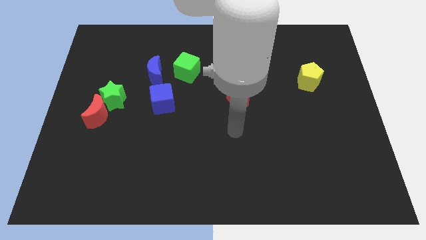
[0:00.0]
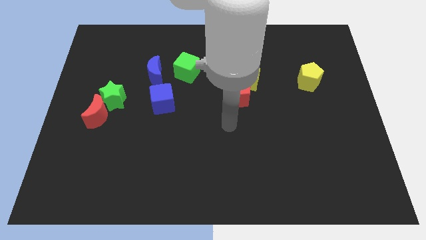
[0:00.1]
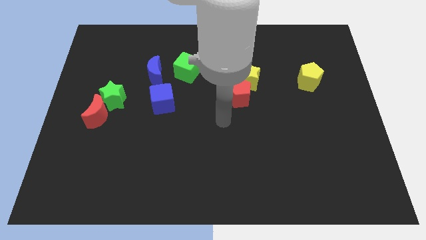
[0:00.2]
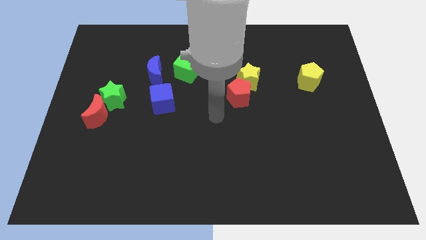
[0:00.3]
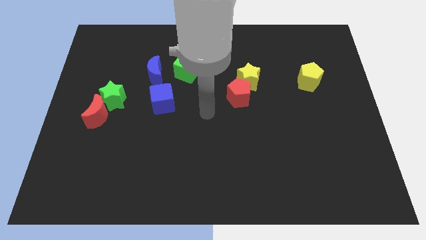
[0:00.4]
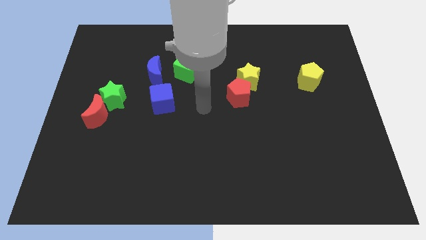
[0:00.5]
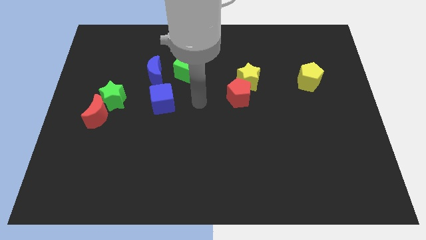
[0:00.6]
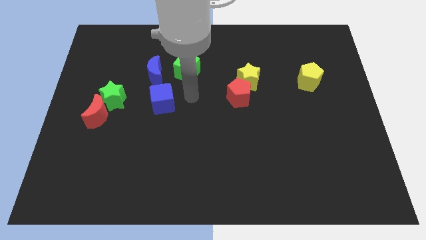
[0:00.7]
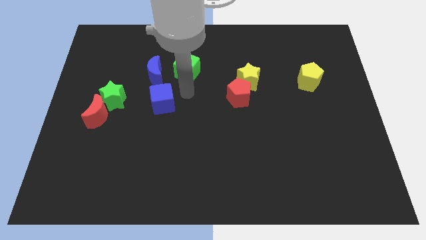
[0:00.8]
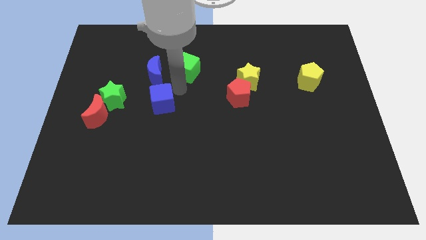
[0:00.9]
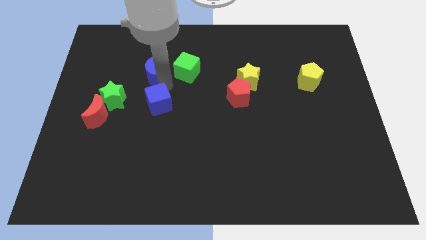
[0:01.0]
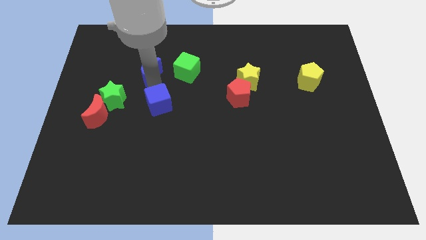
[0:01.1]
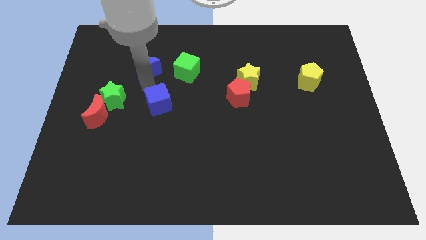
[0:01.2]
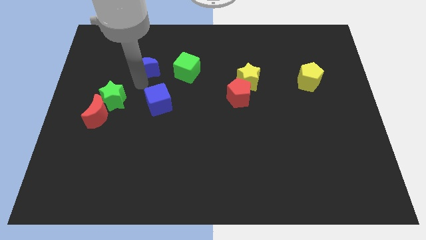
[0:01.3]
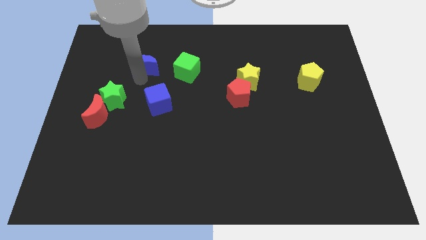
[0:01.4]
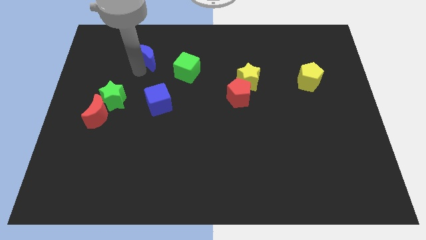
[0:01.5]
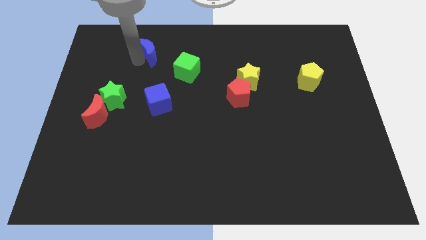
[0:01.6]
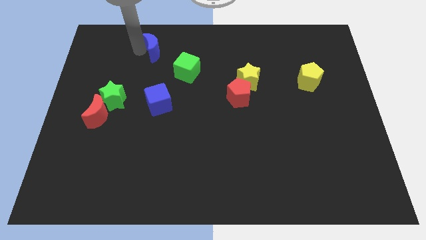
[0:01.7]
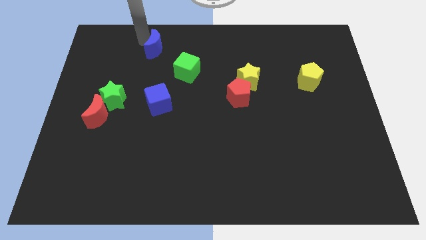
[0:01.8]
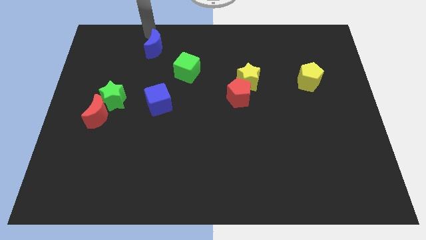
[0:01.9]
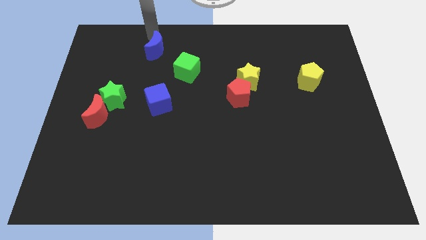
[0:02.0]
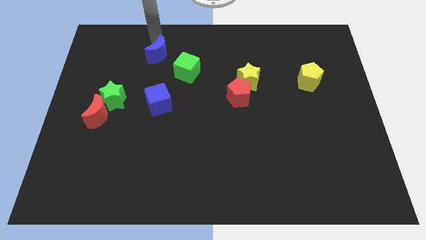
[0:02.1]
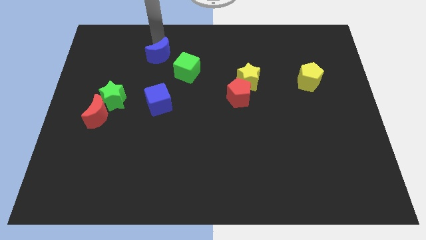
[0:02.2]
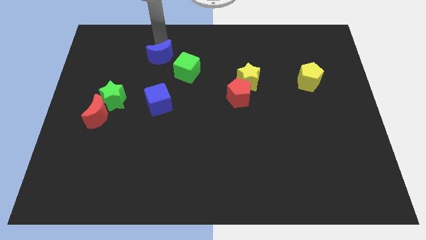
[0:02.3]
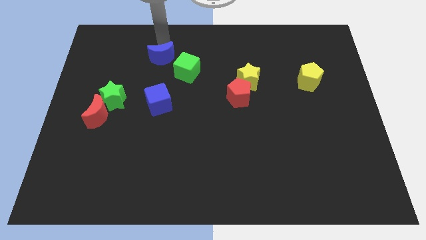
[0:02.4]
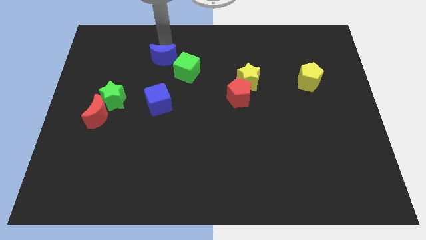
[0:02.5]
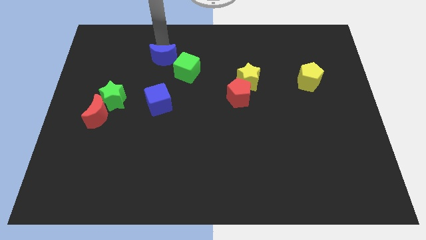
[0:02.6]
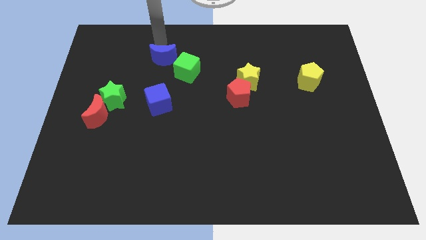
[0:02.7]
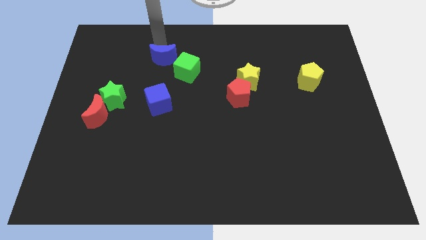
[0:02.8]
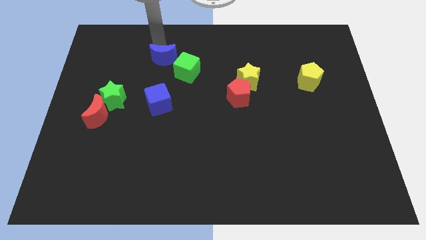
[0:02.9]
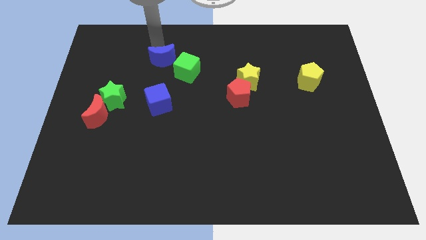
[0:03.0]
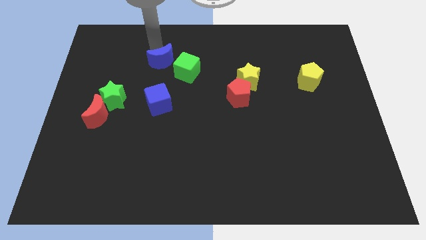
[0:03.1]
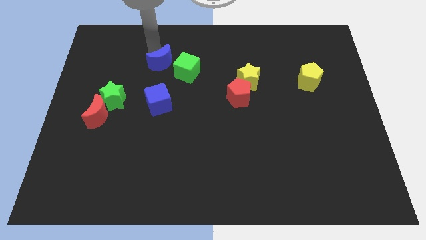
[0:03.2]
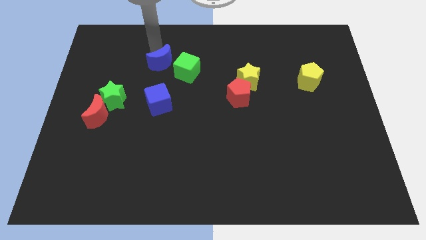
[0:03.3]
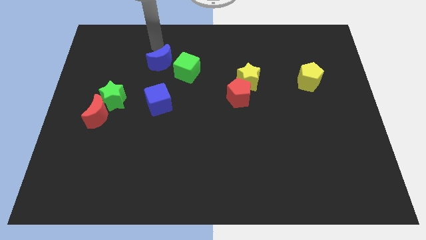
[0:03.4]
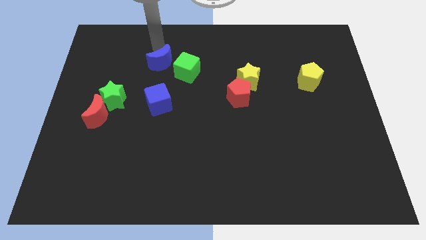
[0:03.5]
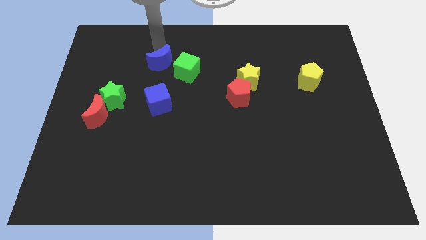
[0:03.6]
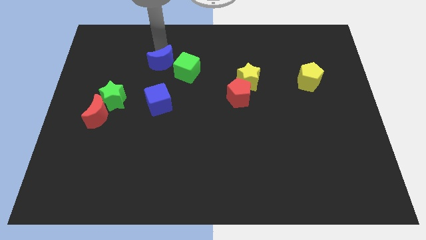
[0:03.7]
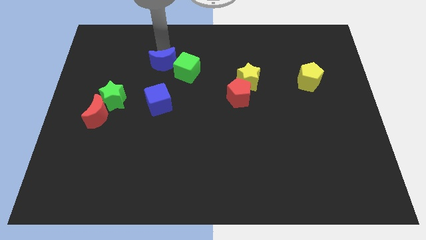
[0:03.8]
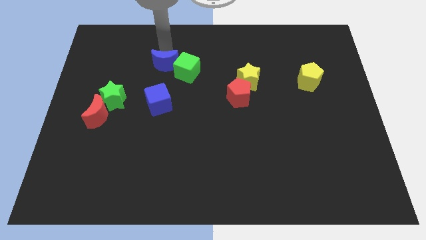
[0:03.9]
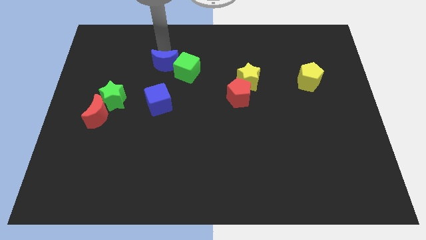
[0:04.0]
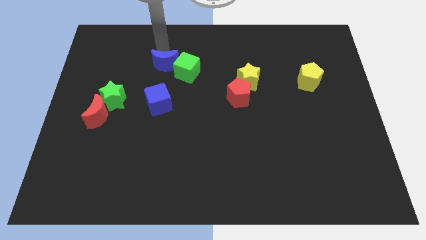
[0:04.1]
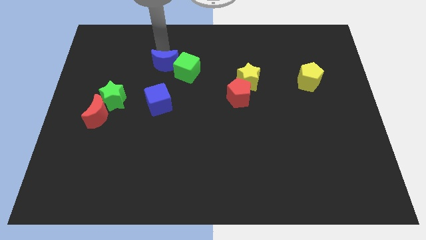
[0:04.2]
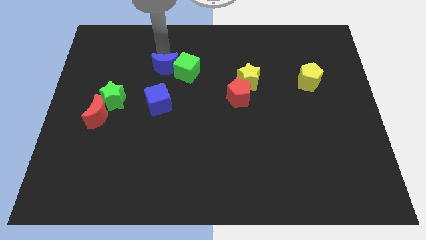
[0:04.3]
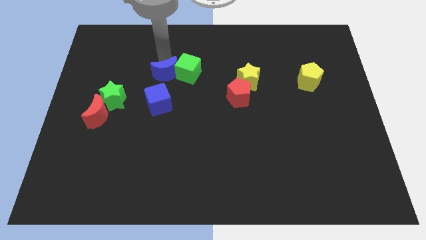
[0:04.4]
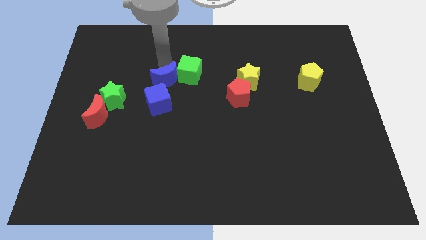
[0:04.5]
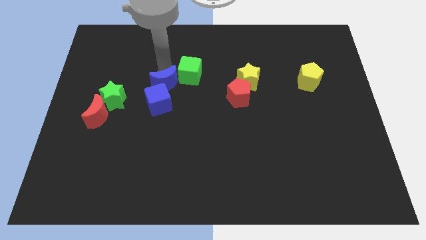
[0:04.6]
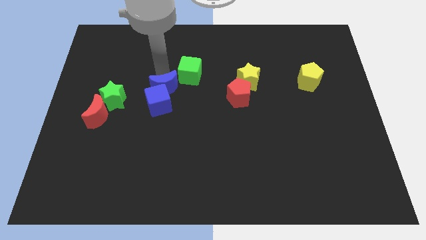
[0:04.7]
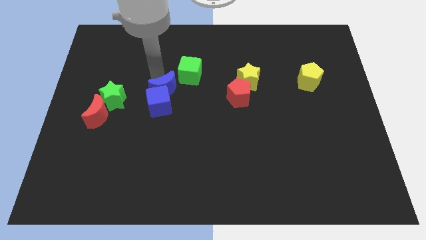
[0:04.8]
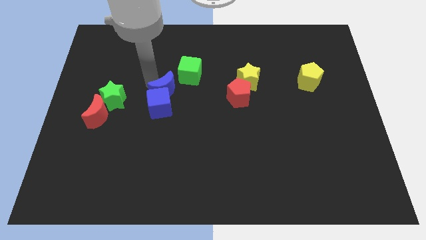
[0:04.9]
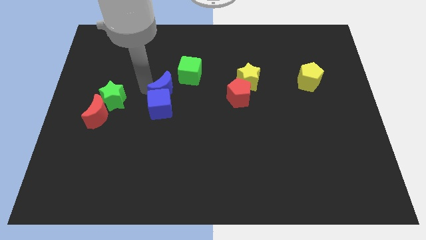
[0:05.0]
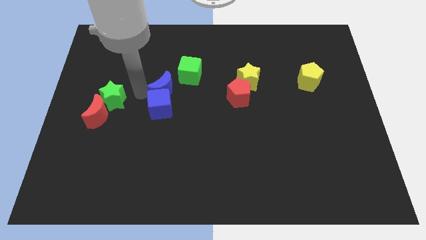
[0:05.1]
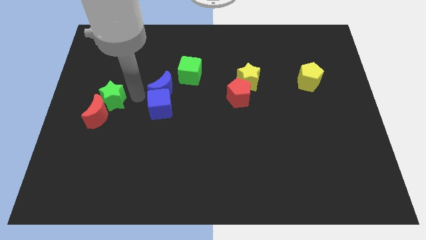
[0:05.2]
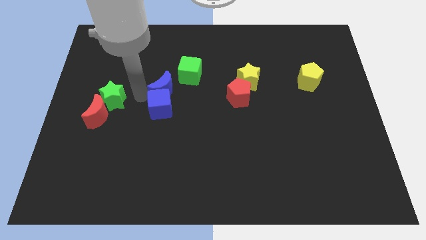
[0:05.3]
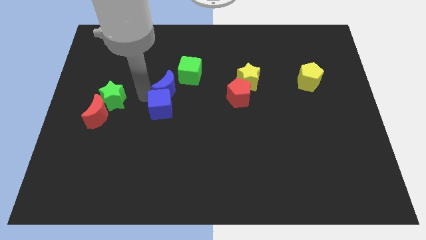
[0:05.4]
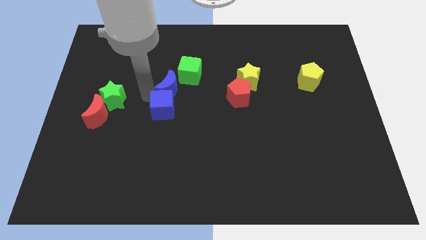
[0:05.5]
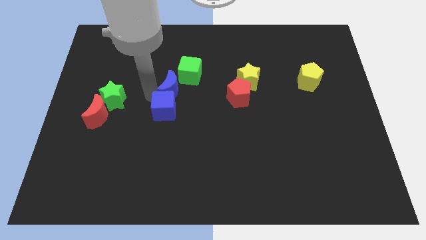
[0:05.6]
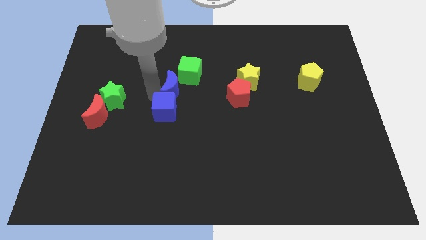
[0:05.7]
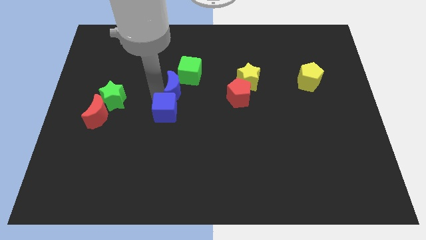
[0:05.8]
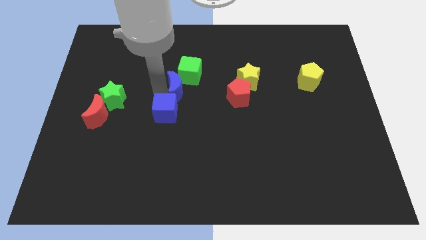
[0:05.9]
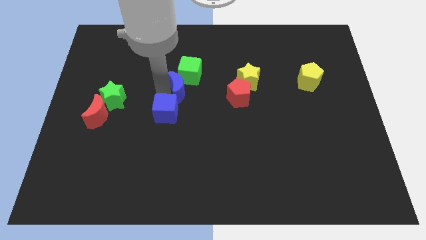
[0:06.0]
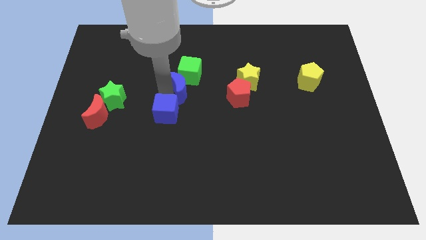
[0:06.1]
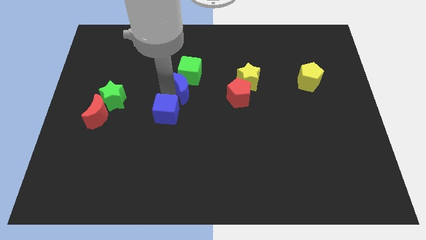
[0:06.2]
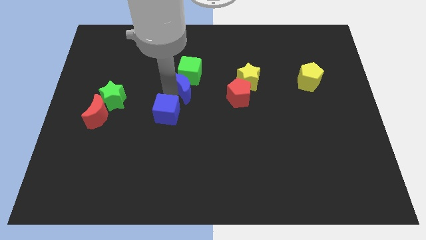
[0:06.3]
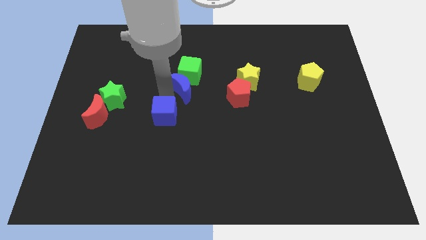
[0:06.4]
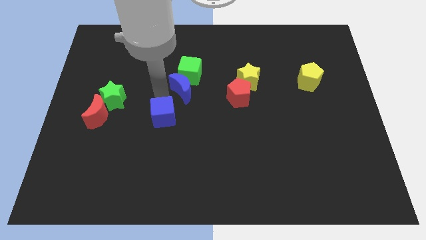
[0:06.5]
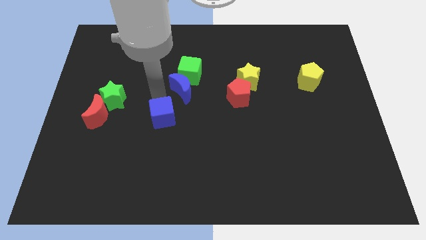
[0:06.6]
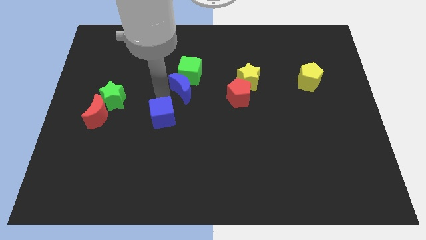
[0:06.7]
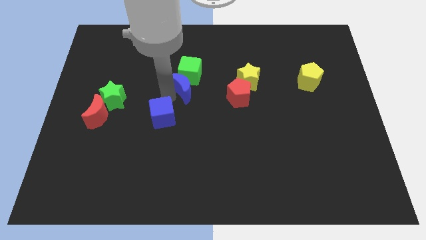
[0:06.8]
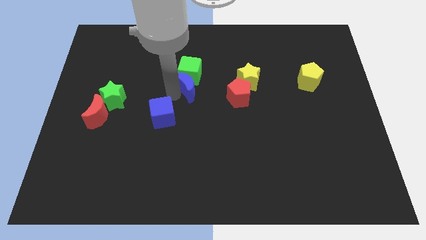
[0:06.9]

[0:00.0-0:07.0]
slightly slide the blue moon right

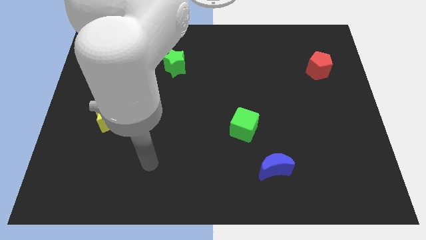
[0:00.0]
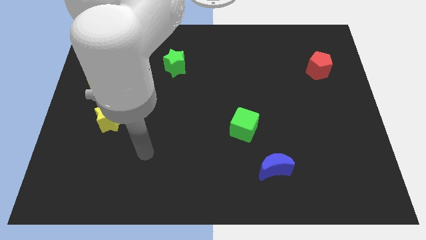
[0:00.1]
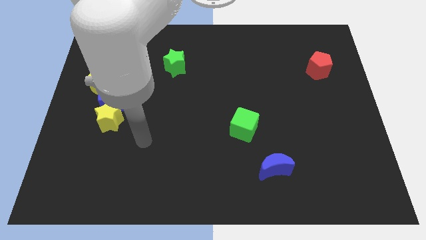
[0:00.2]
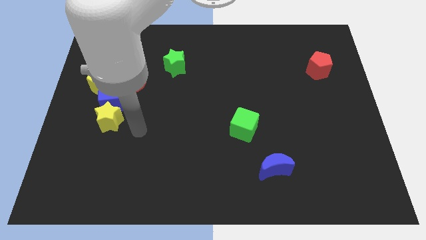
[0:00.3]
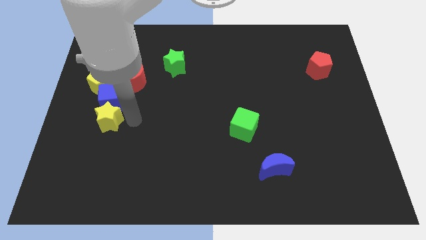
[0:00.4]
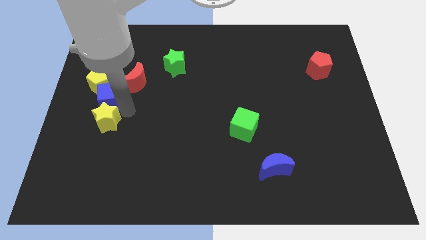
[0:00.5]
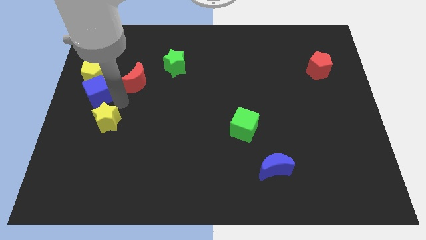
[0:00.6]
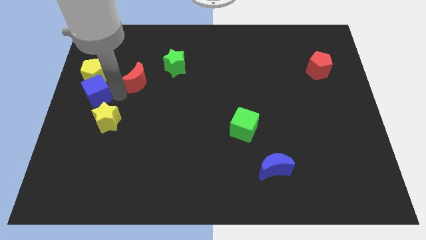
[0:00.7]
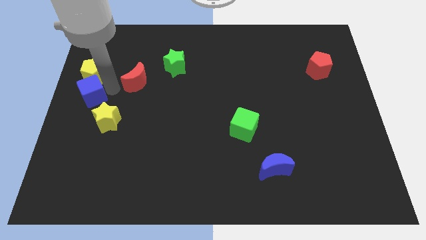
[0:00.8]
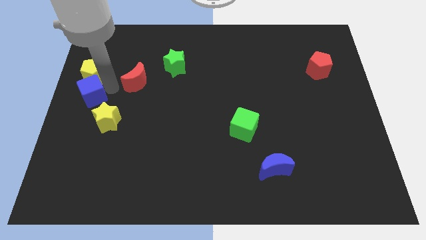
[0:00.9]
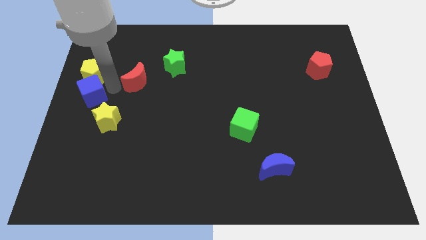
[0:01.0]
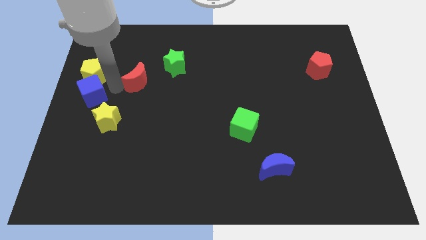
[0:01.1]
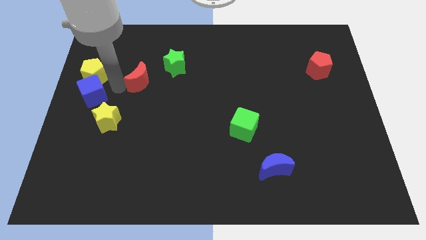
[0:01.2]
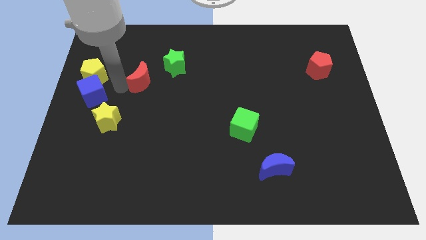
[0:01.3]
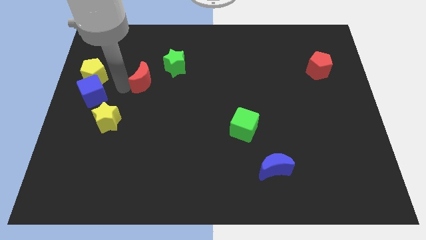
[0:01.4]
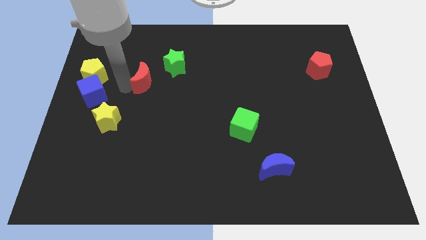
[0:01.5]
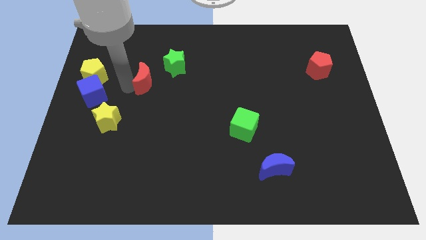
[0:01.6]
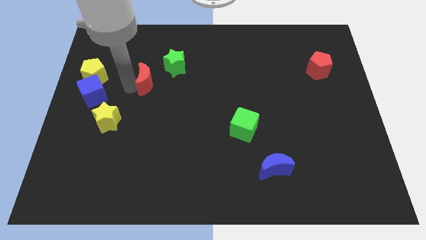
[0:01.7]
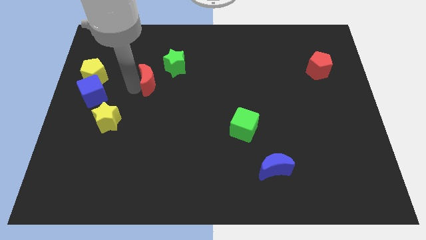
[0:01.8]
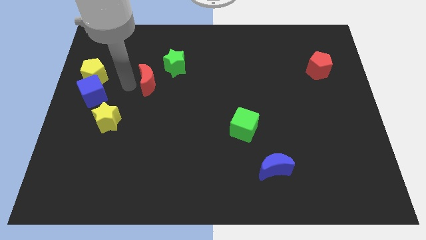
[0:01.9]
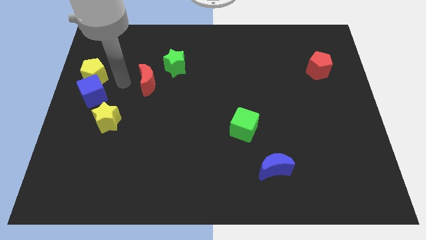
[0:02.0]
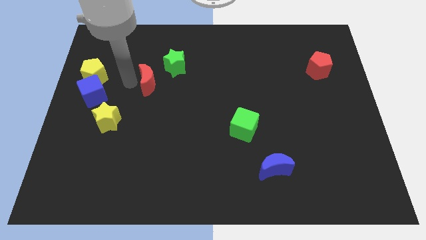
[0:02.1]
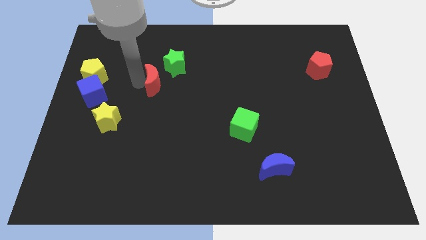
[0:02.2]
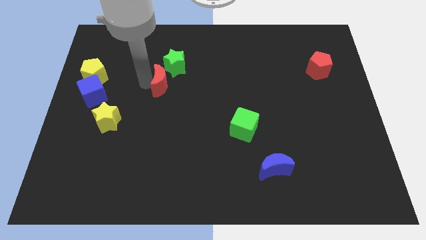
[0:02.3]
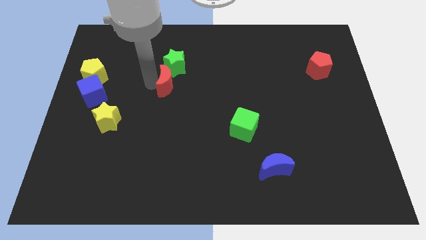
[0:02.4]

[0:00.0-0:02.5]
move the red moon to the right a little
